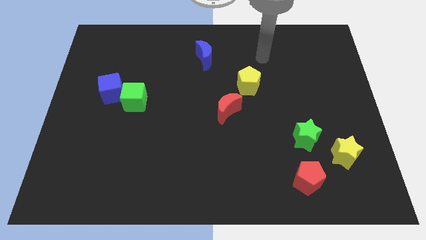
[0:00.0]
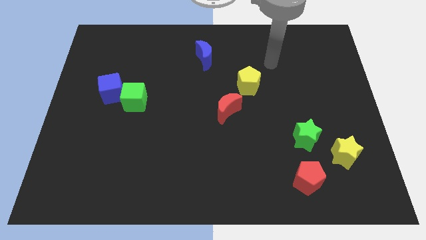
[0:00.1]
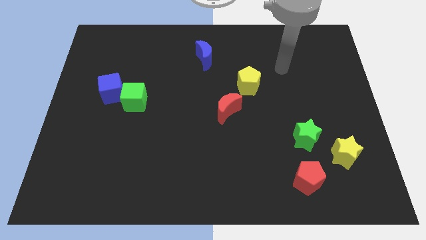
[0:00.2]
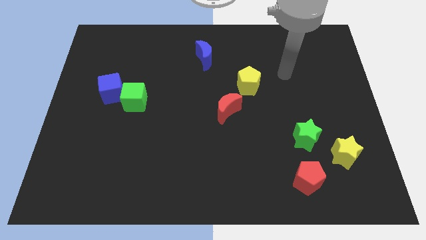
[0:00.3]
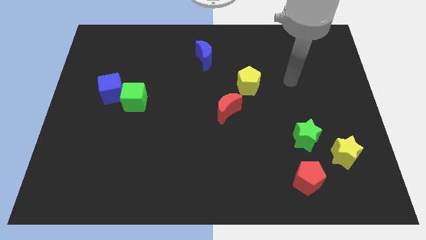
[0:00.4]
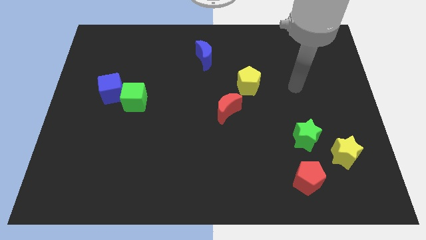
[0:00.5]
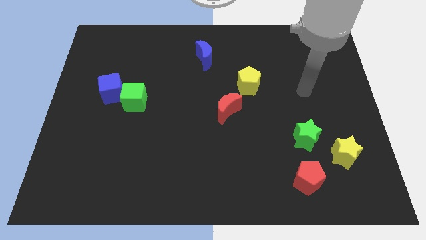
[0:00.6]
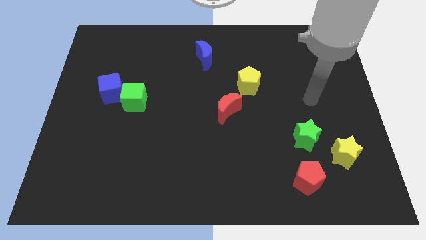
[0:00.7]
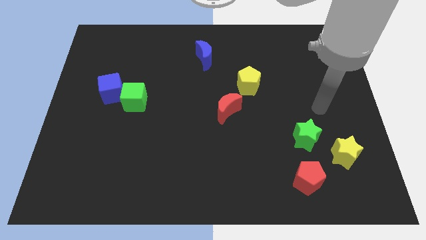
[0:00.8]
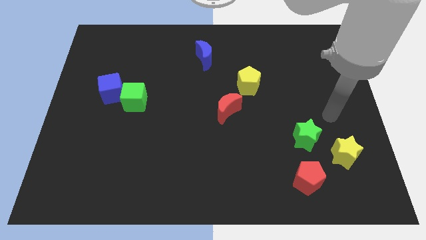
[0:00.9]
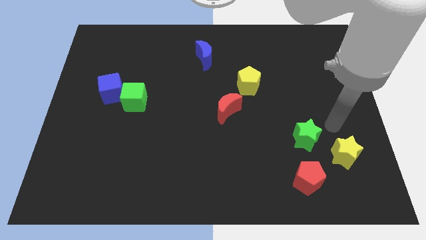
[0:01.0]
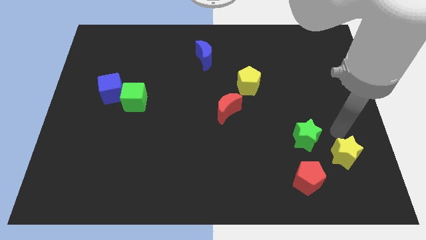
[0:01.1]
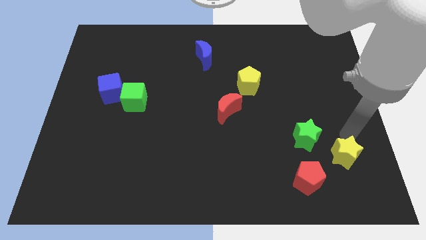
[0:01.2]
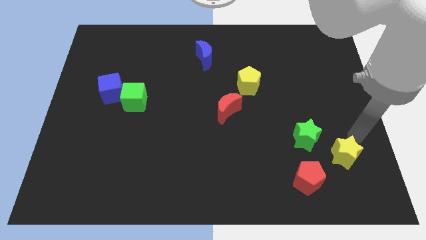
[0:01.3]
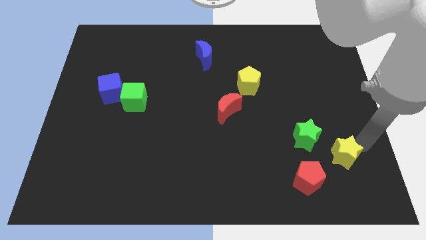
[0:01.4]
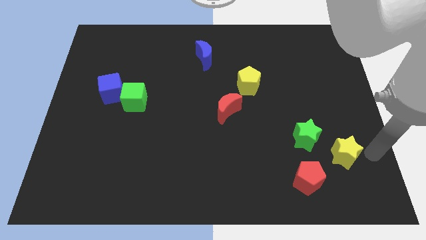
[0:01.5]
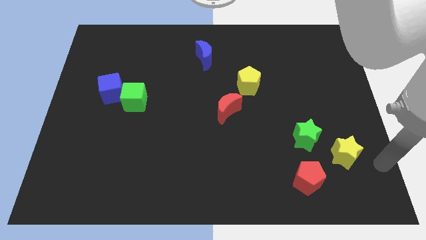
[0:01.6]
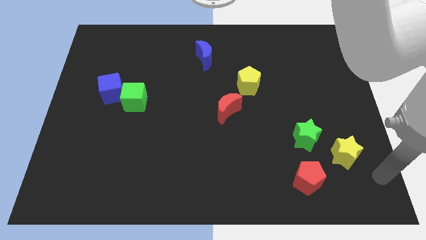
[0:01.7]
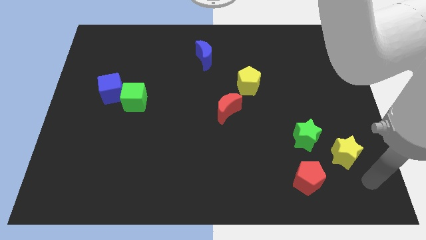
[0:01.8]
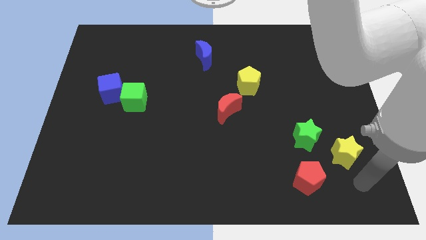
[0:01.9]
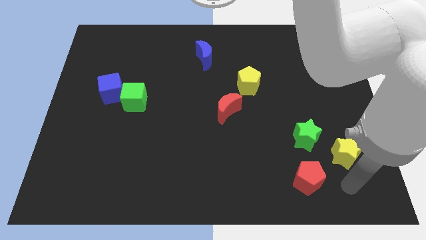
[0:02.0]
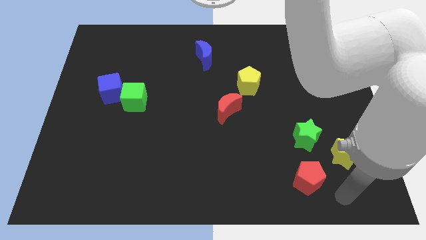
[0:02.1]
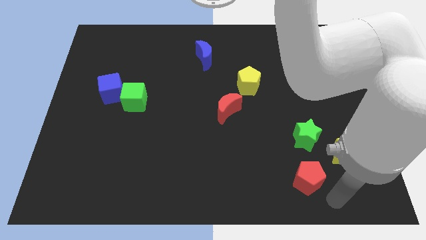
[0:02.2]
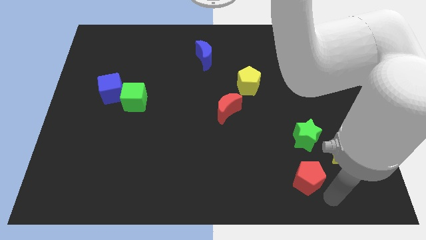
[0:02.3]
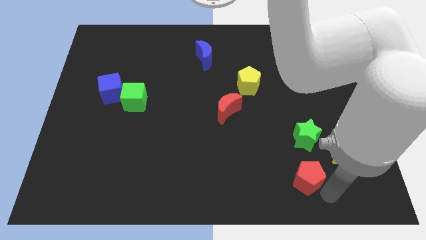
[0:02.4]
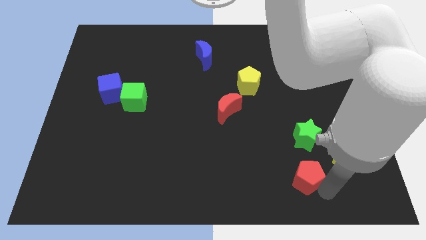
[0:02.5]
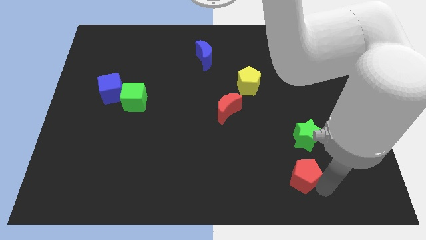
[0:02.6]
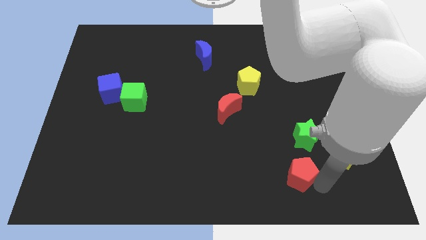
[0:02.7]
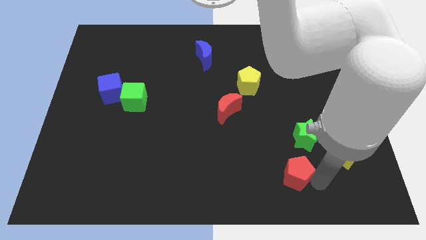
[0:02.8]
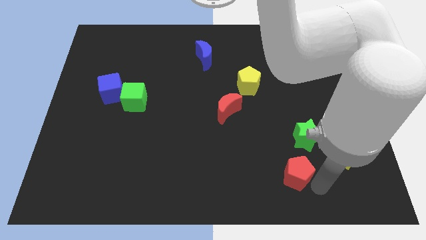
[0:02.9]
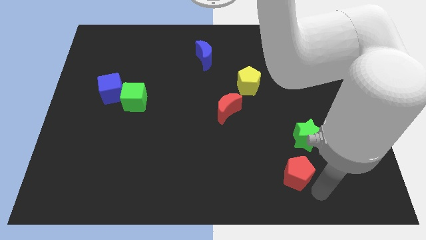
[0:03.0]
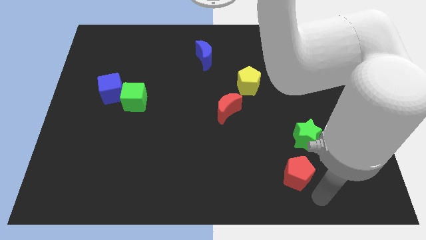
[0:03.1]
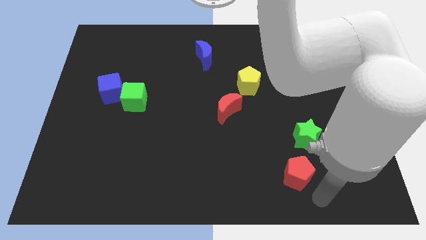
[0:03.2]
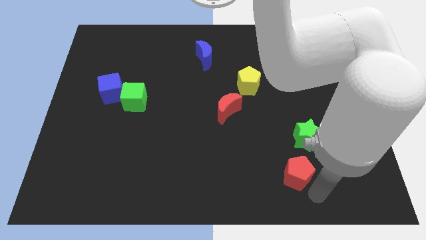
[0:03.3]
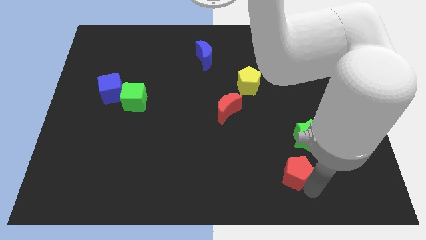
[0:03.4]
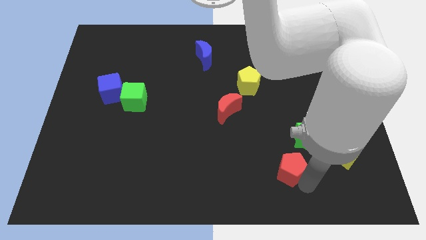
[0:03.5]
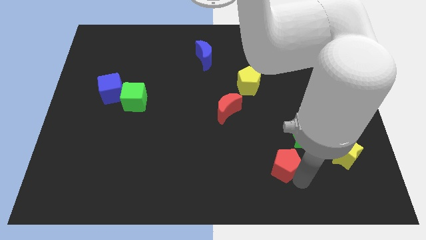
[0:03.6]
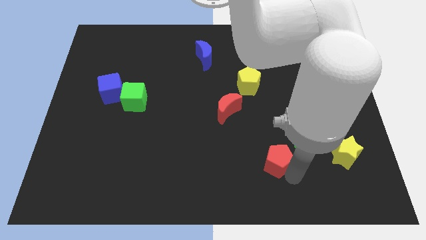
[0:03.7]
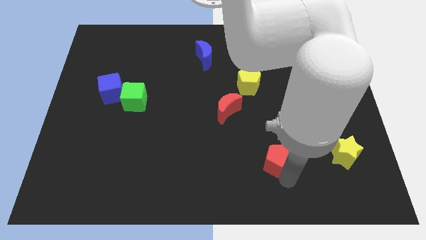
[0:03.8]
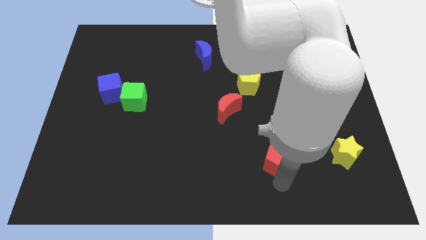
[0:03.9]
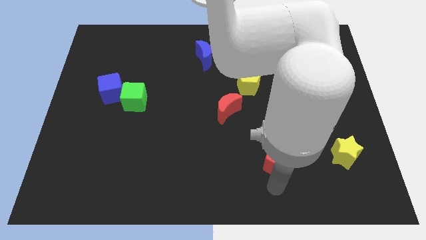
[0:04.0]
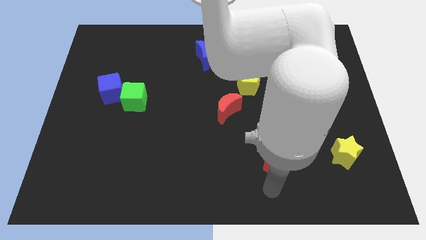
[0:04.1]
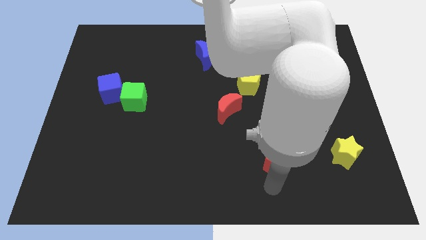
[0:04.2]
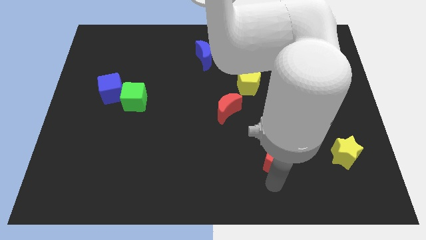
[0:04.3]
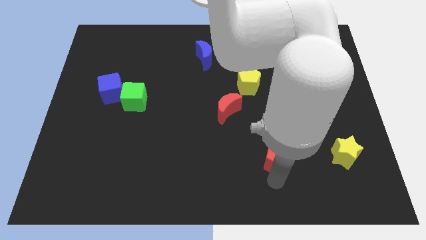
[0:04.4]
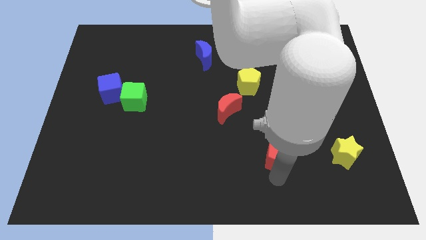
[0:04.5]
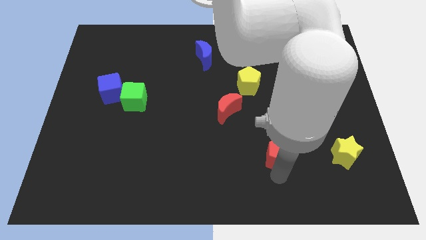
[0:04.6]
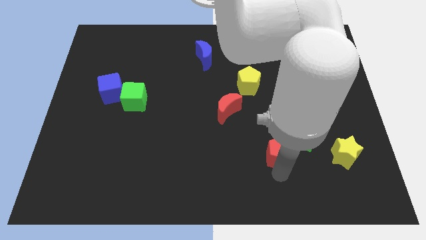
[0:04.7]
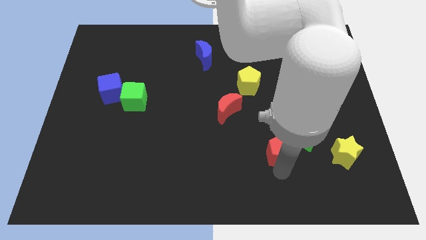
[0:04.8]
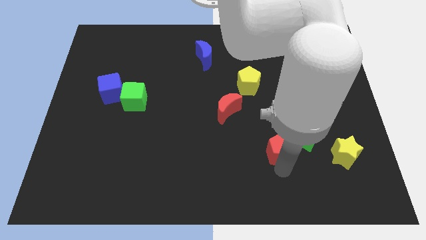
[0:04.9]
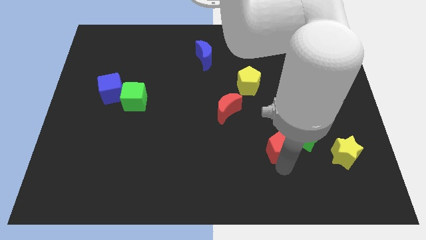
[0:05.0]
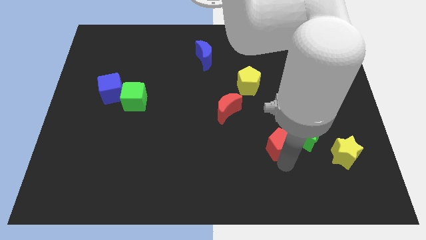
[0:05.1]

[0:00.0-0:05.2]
slightly slide the red pentagon up

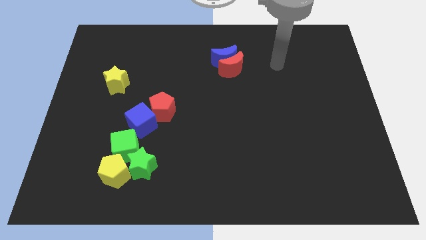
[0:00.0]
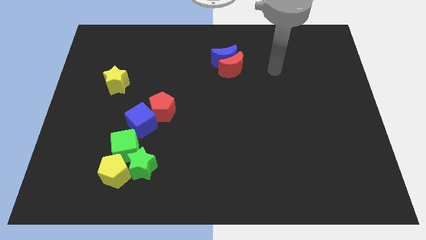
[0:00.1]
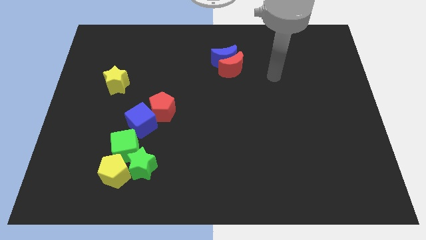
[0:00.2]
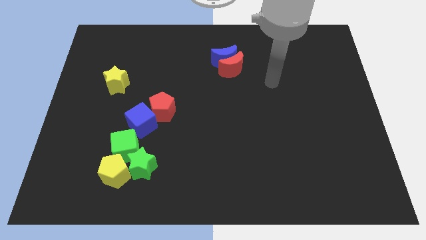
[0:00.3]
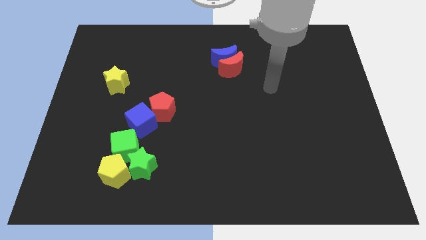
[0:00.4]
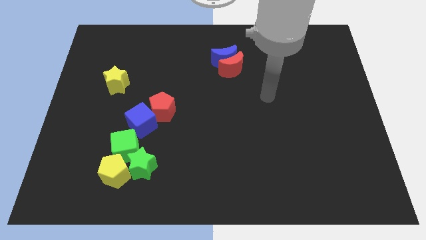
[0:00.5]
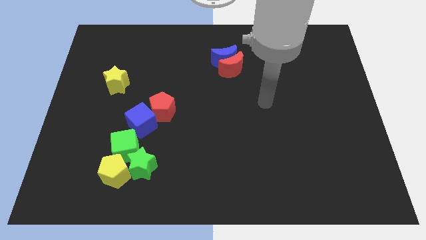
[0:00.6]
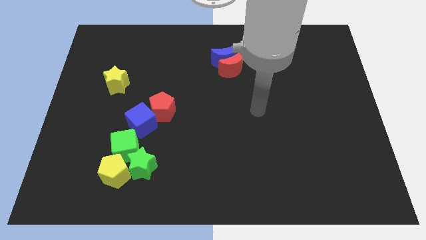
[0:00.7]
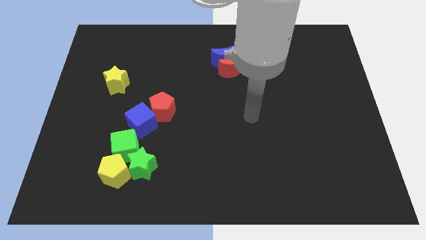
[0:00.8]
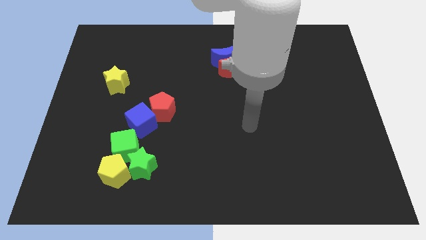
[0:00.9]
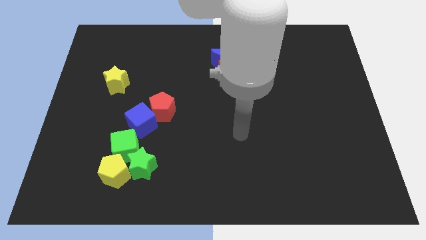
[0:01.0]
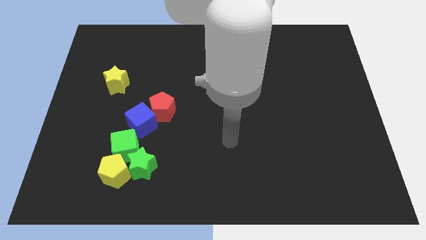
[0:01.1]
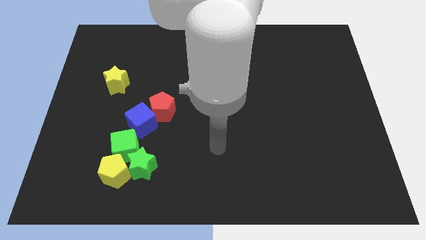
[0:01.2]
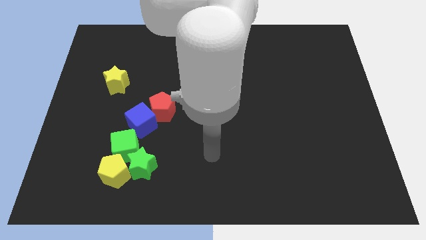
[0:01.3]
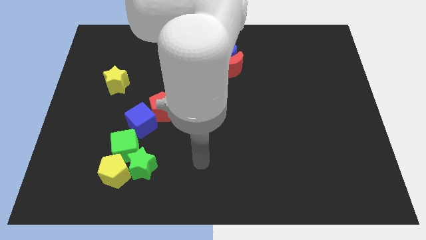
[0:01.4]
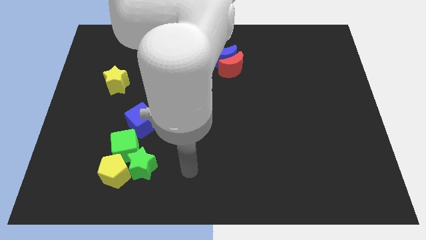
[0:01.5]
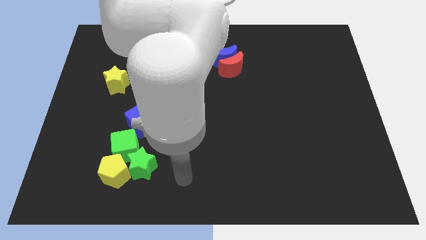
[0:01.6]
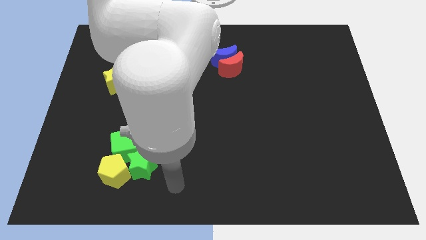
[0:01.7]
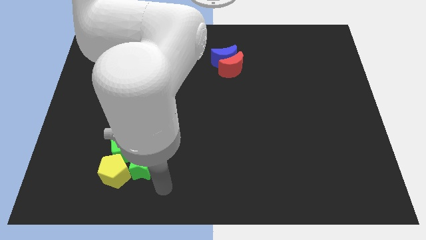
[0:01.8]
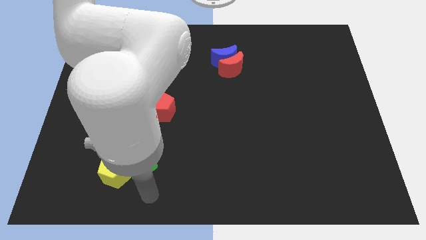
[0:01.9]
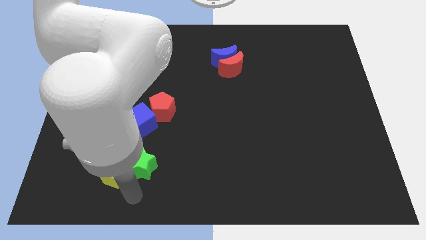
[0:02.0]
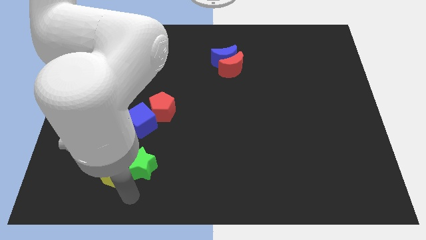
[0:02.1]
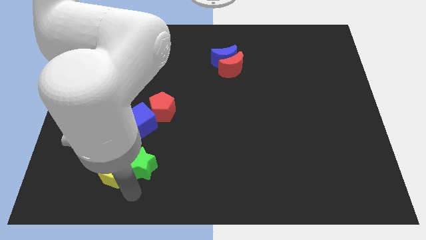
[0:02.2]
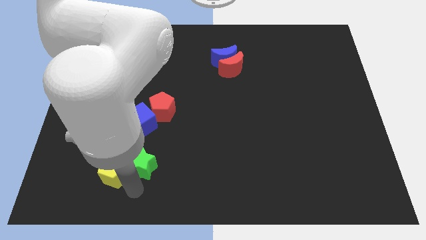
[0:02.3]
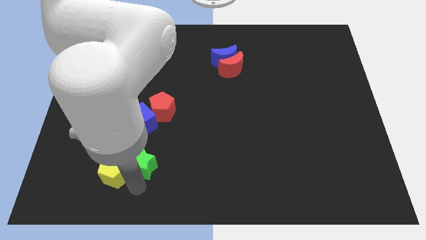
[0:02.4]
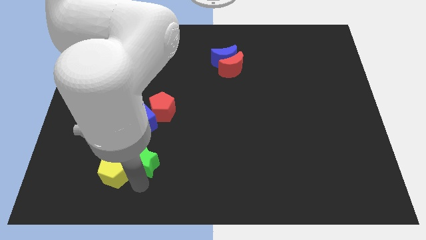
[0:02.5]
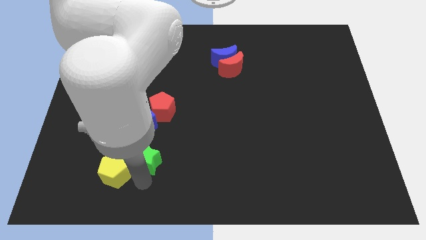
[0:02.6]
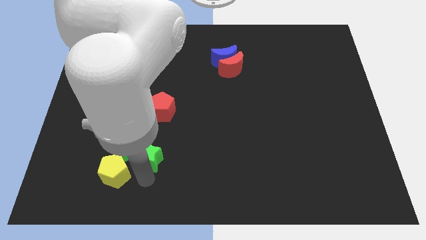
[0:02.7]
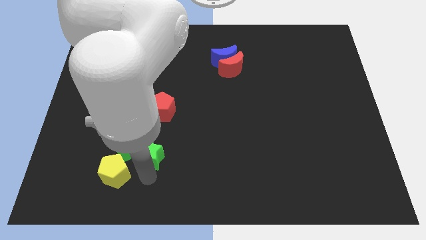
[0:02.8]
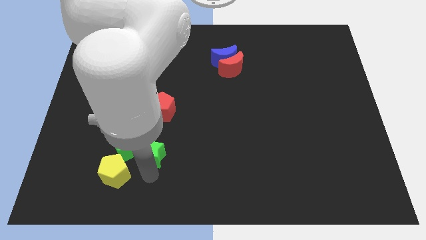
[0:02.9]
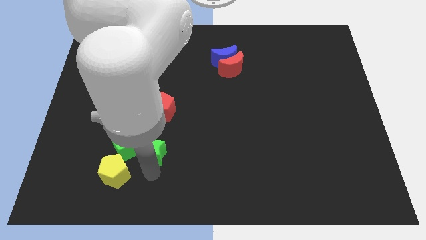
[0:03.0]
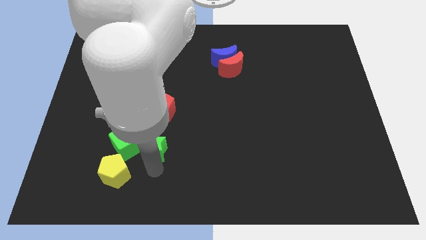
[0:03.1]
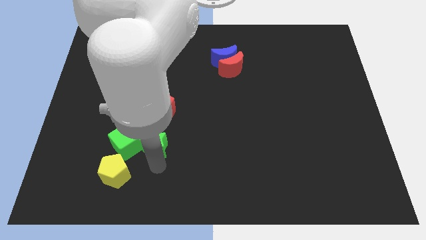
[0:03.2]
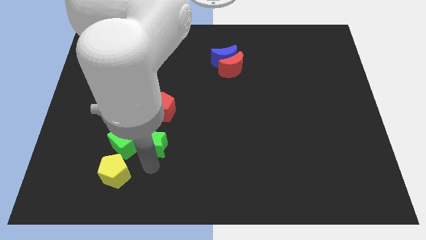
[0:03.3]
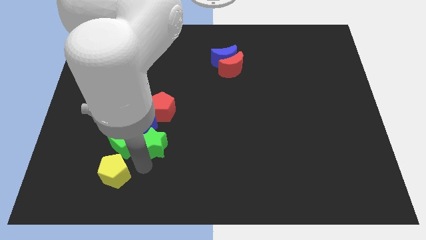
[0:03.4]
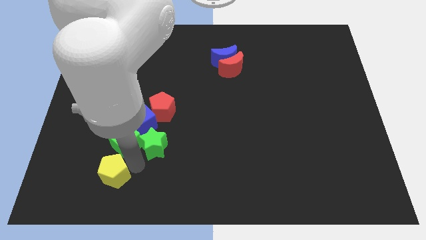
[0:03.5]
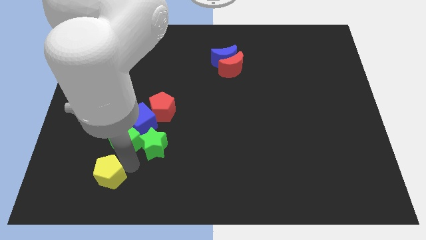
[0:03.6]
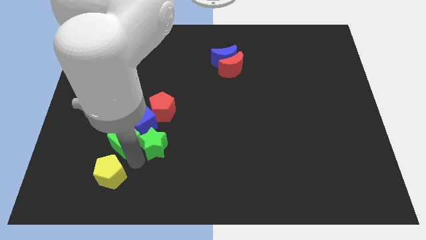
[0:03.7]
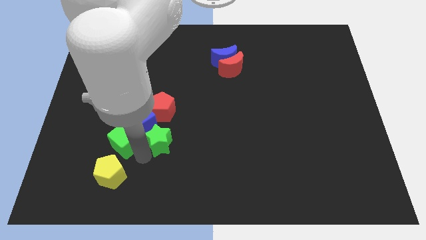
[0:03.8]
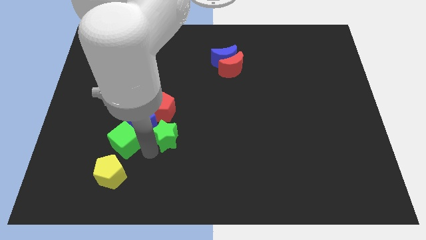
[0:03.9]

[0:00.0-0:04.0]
slightly slide the green star up and to the right
